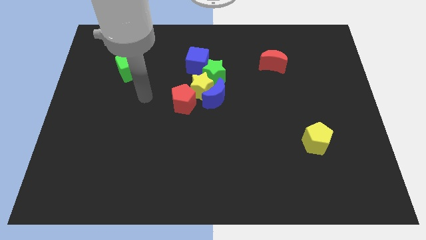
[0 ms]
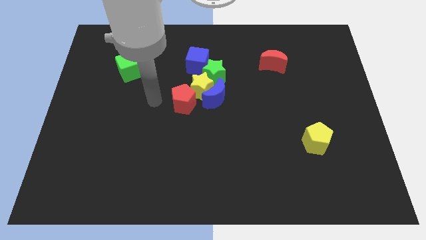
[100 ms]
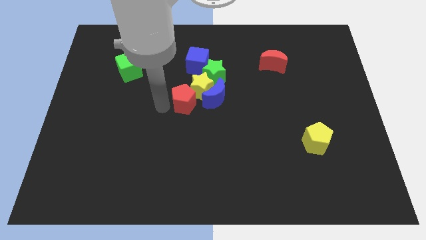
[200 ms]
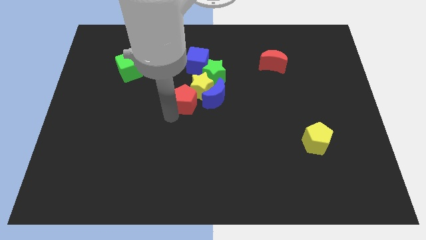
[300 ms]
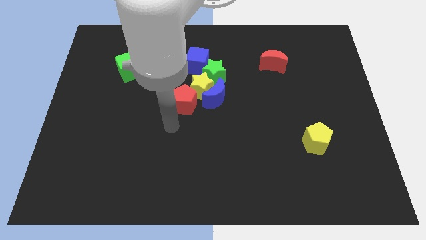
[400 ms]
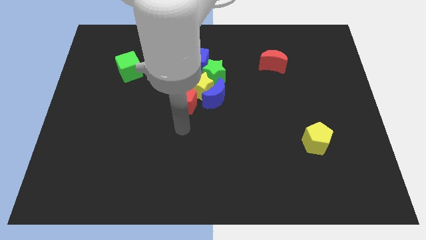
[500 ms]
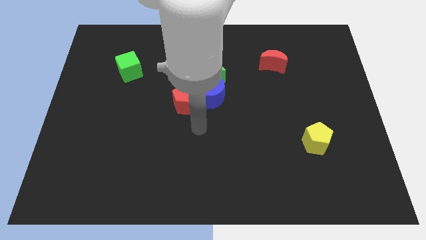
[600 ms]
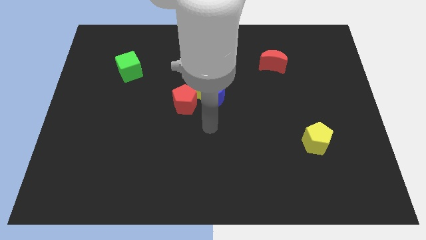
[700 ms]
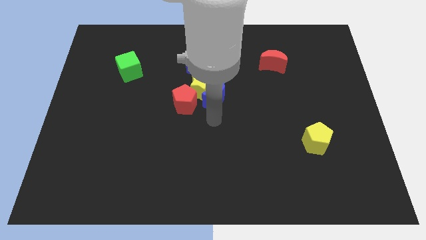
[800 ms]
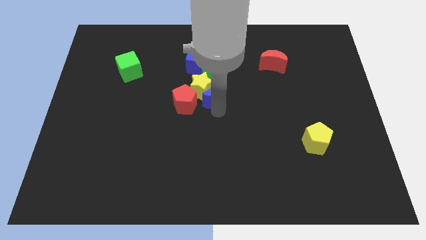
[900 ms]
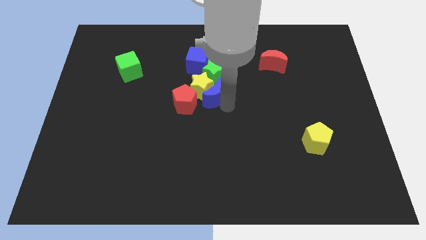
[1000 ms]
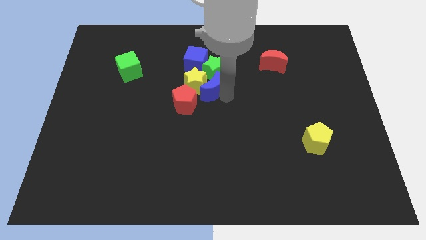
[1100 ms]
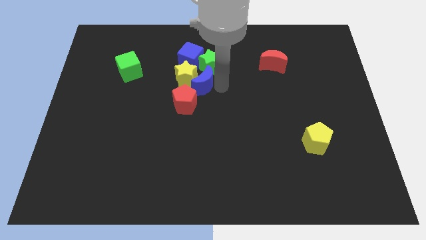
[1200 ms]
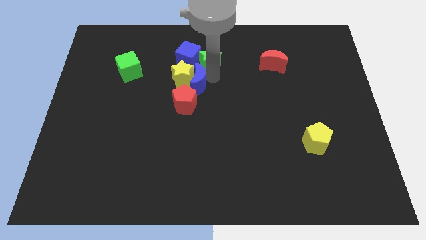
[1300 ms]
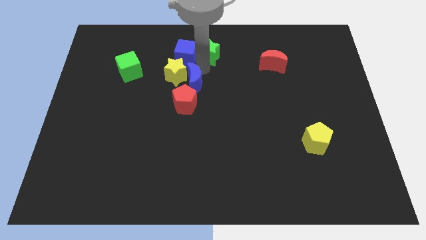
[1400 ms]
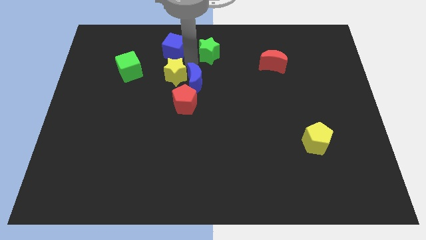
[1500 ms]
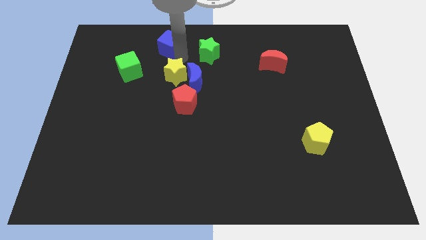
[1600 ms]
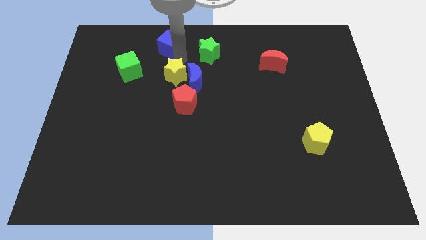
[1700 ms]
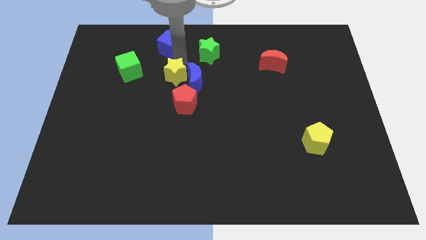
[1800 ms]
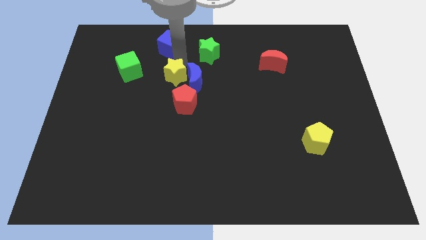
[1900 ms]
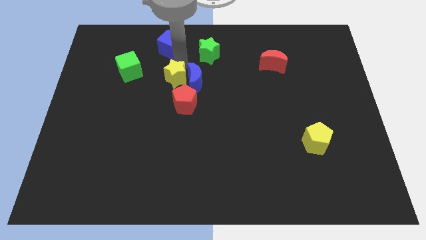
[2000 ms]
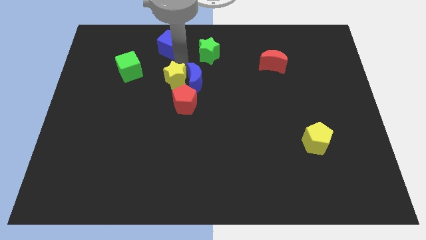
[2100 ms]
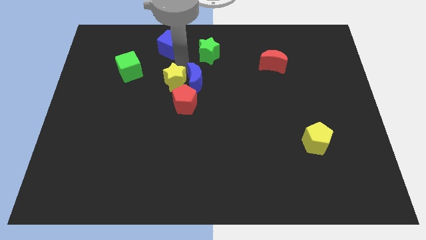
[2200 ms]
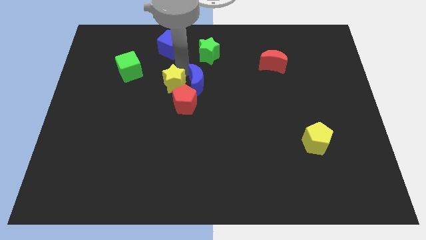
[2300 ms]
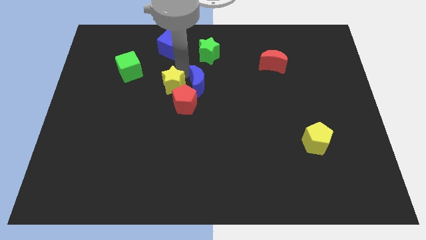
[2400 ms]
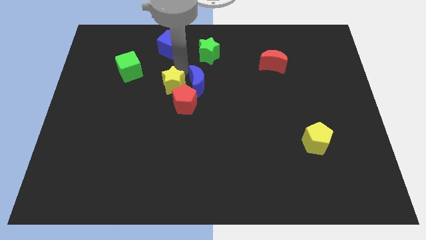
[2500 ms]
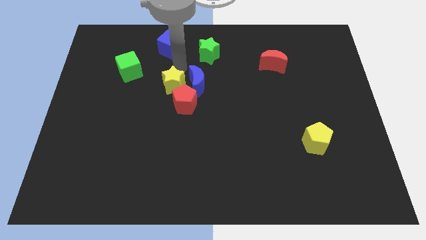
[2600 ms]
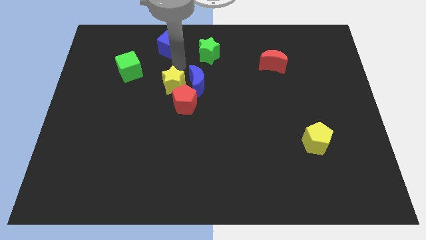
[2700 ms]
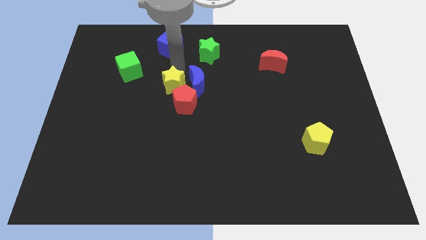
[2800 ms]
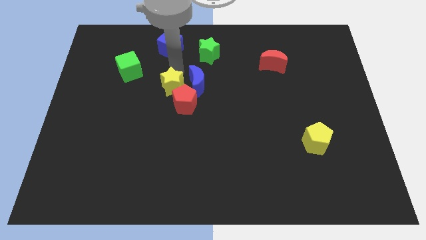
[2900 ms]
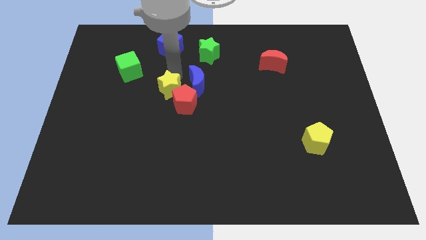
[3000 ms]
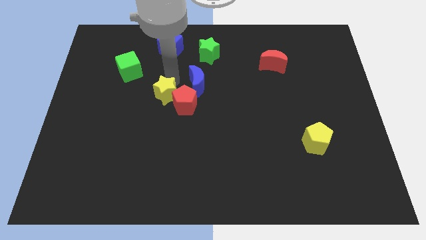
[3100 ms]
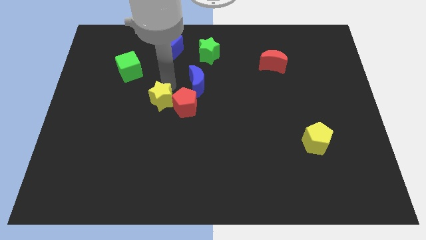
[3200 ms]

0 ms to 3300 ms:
move the yellow star away from the group of blocks

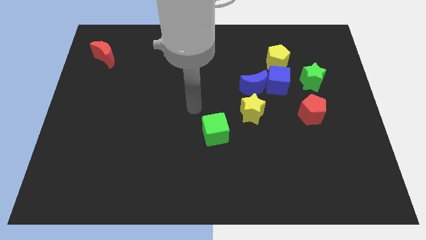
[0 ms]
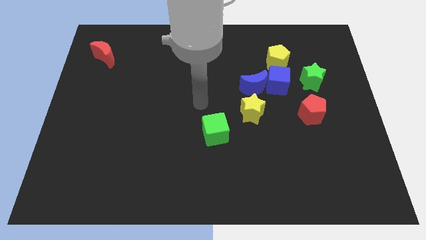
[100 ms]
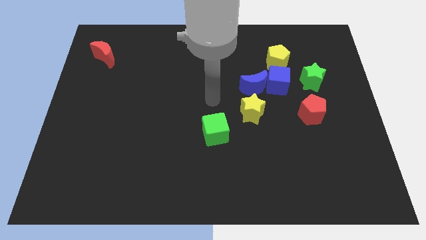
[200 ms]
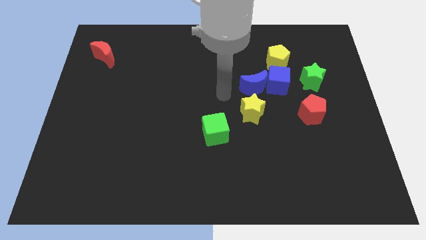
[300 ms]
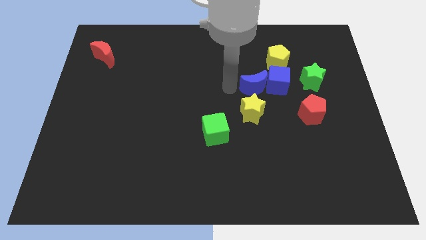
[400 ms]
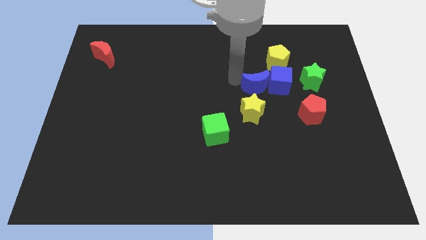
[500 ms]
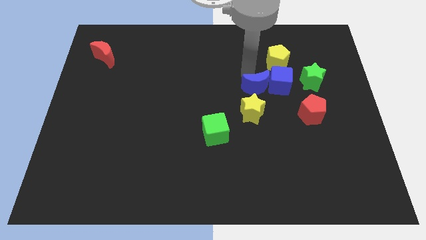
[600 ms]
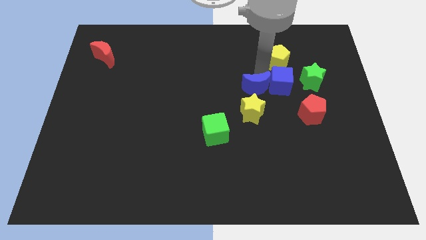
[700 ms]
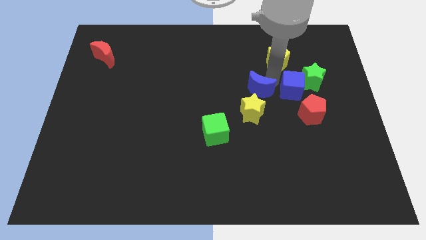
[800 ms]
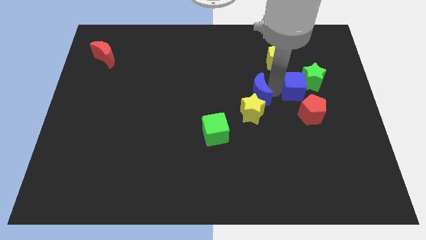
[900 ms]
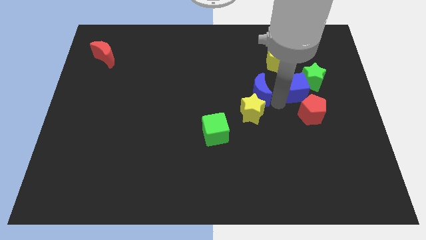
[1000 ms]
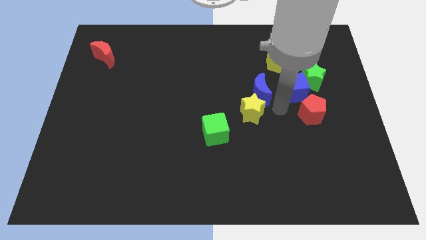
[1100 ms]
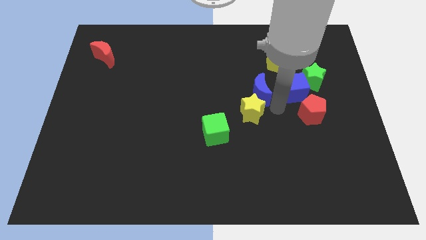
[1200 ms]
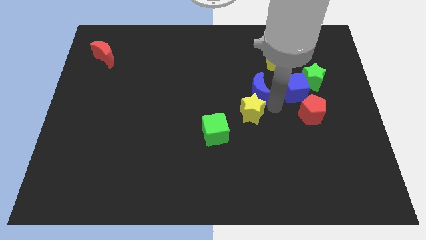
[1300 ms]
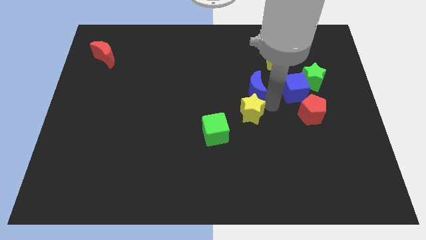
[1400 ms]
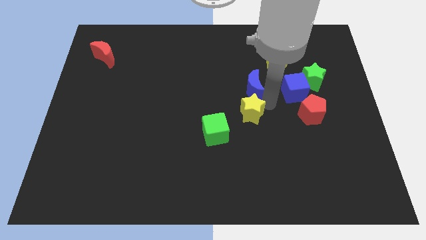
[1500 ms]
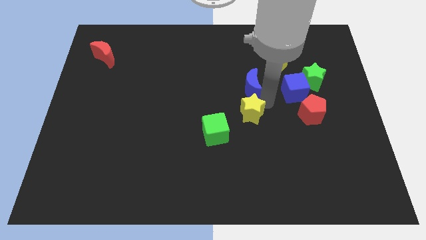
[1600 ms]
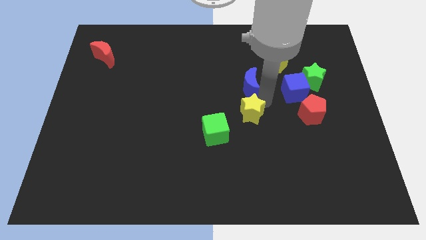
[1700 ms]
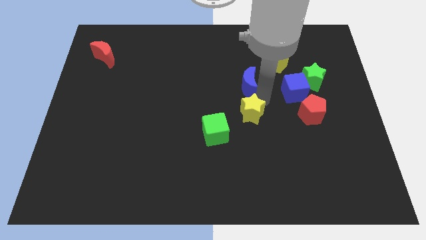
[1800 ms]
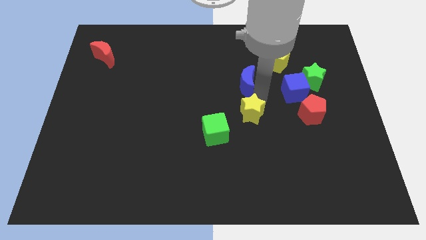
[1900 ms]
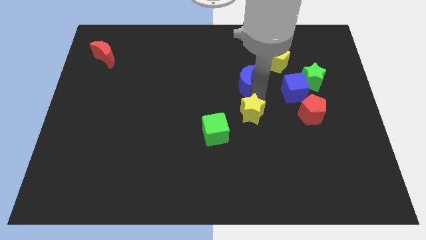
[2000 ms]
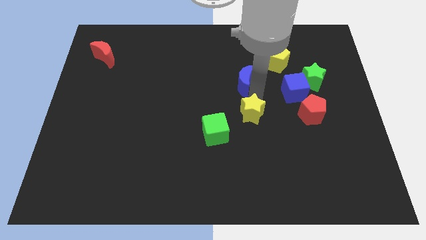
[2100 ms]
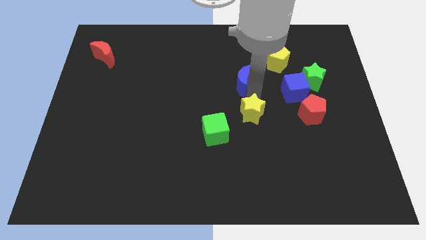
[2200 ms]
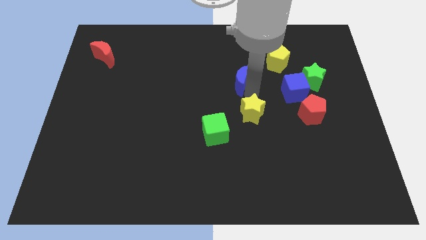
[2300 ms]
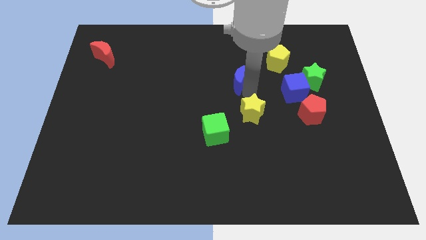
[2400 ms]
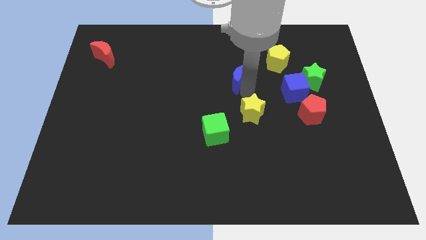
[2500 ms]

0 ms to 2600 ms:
pull the blue moon apart from the blue cube and yellow star

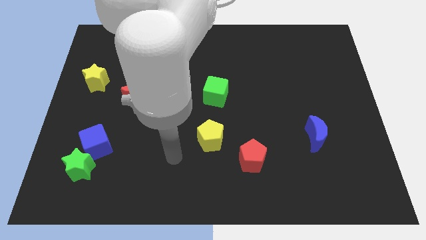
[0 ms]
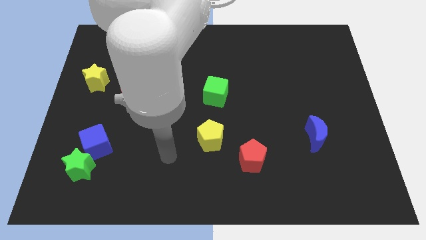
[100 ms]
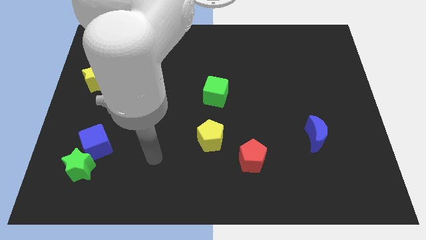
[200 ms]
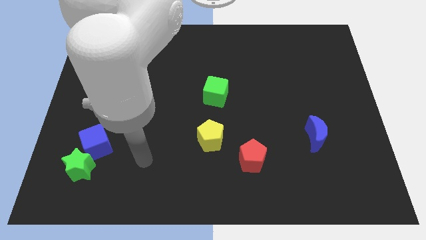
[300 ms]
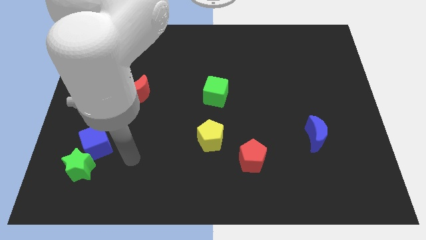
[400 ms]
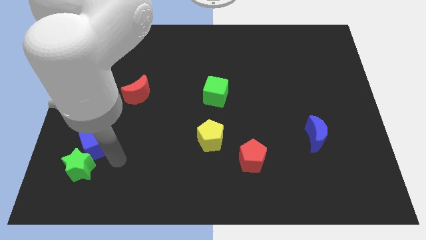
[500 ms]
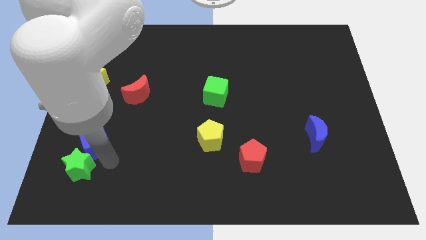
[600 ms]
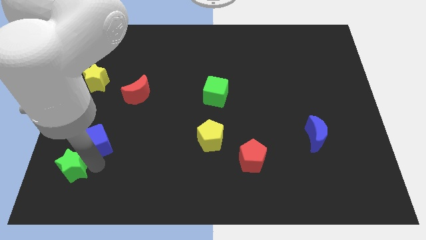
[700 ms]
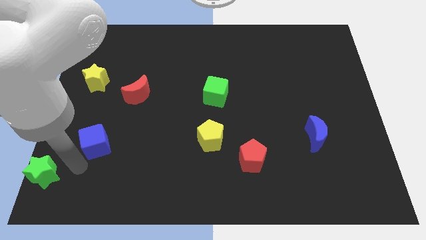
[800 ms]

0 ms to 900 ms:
pull the blue cube apart from the green star

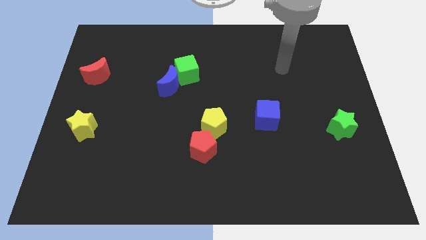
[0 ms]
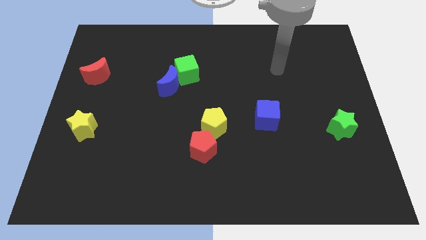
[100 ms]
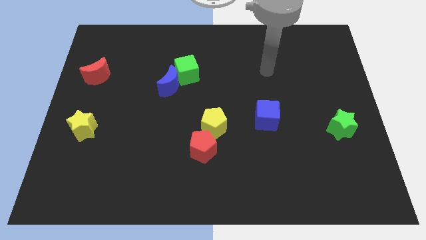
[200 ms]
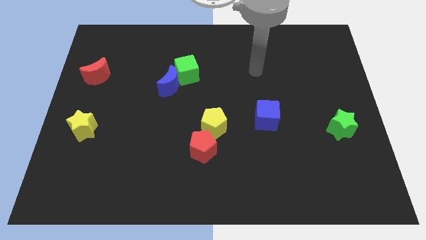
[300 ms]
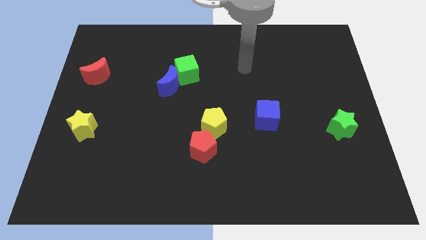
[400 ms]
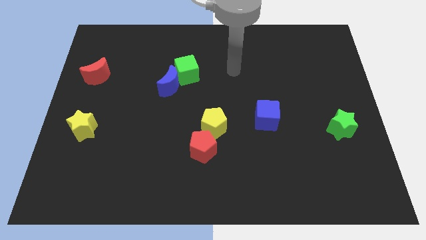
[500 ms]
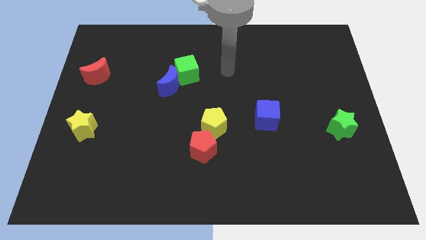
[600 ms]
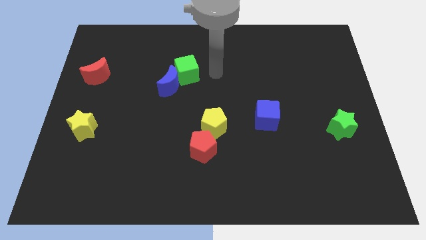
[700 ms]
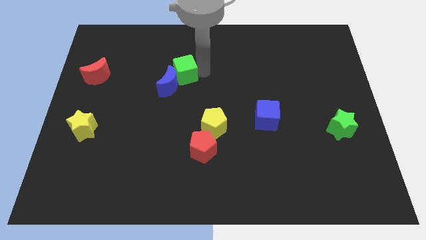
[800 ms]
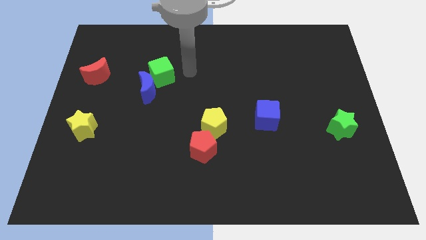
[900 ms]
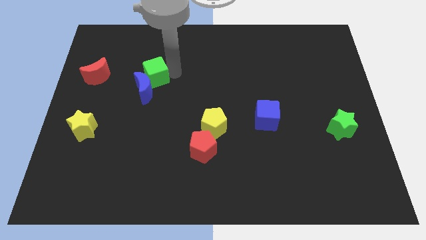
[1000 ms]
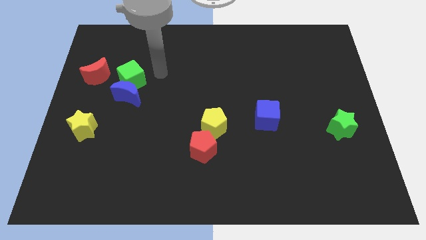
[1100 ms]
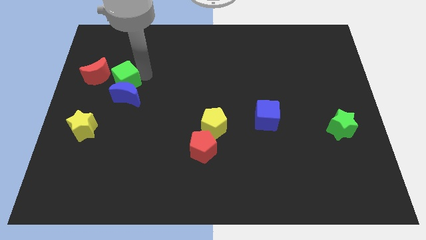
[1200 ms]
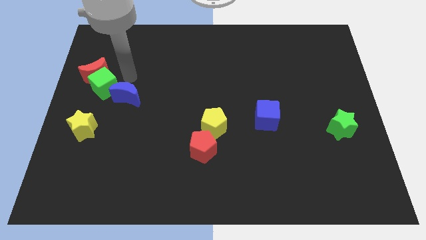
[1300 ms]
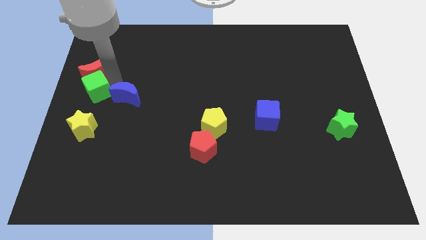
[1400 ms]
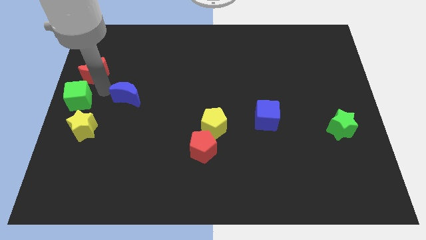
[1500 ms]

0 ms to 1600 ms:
move the blue moon away from the green cube

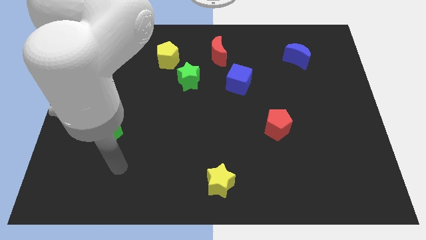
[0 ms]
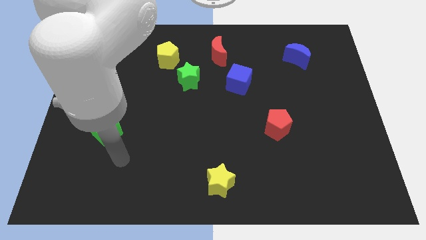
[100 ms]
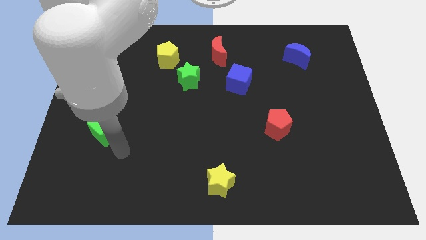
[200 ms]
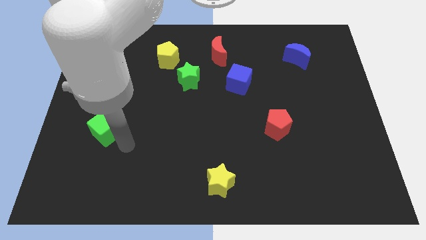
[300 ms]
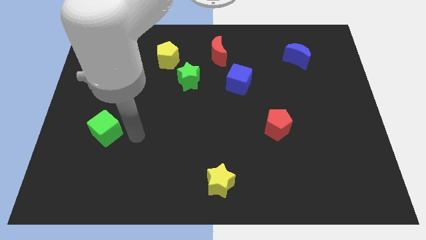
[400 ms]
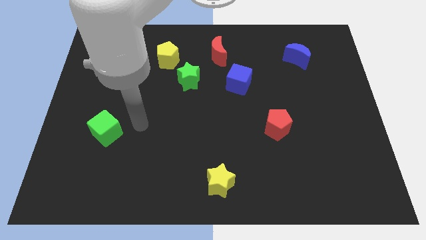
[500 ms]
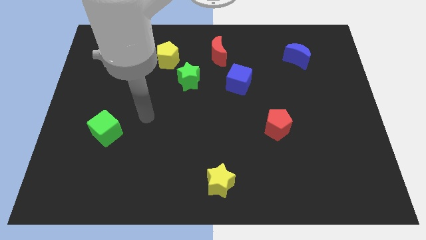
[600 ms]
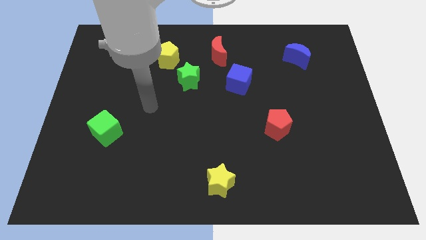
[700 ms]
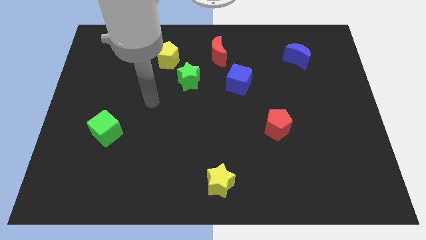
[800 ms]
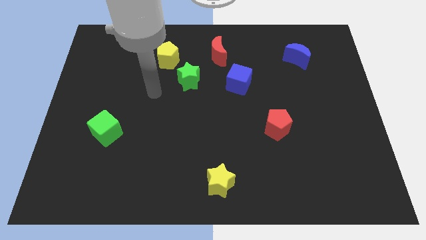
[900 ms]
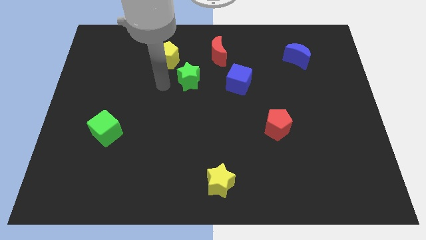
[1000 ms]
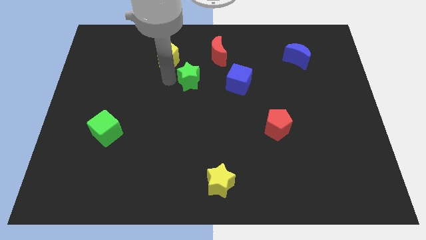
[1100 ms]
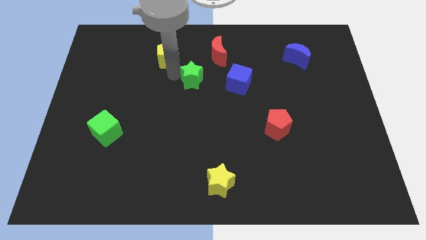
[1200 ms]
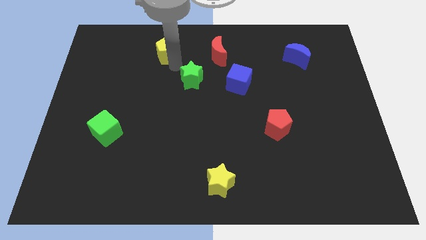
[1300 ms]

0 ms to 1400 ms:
pull the green star apart from the yellow pentagon
